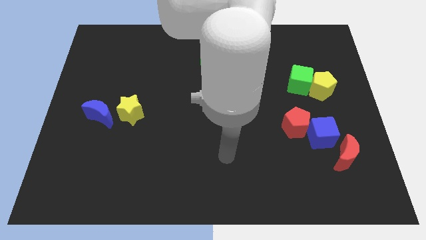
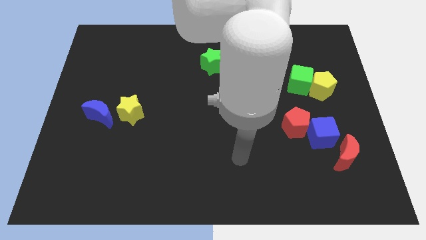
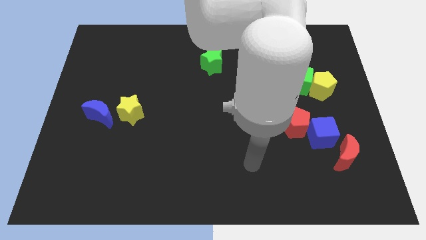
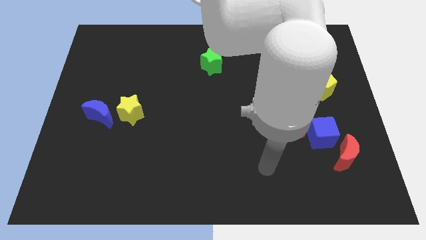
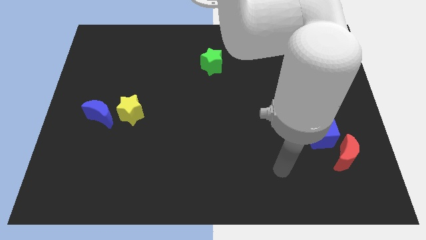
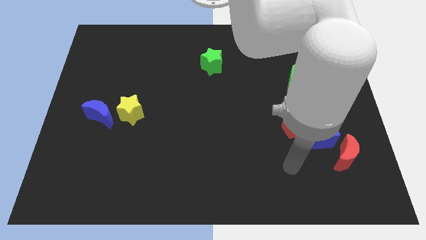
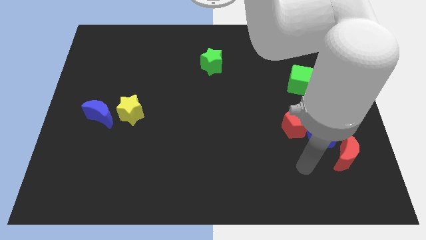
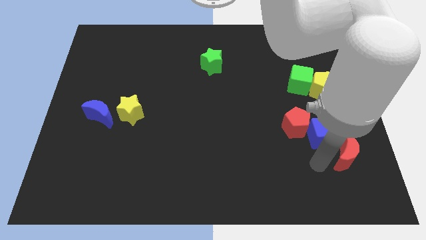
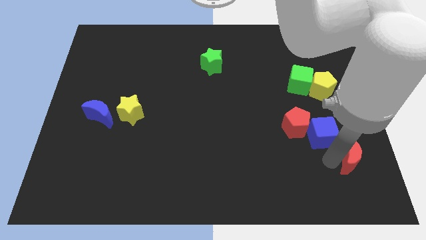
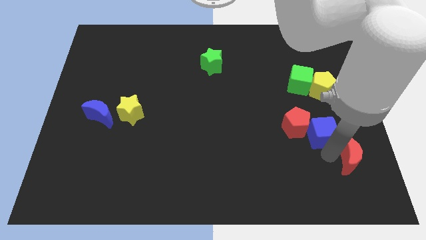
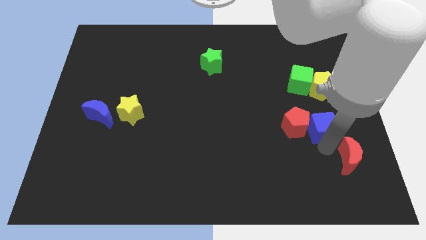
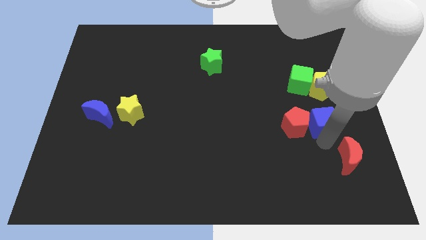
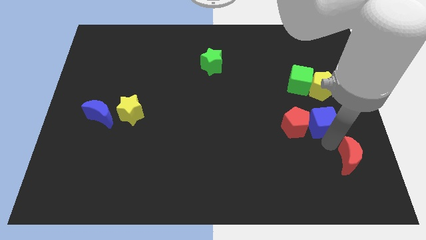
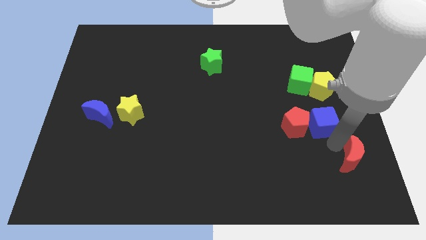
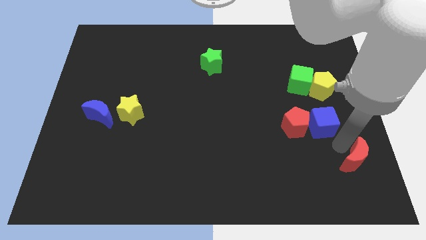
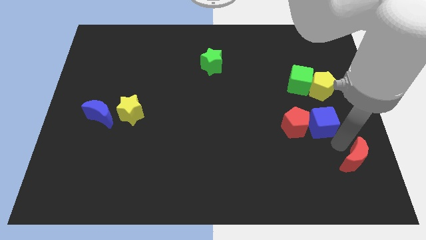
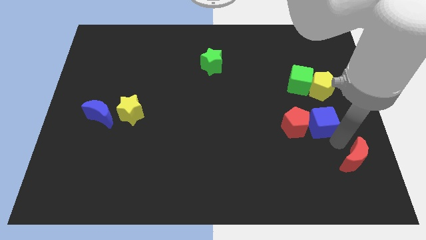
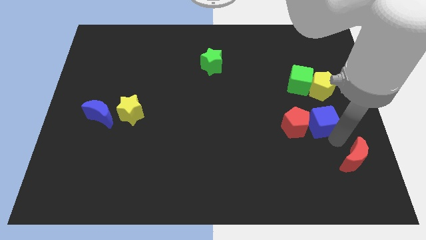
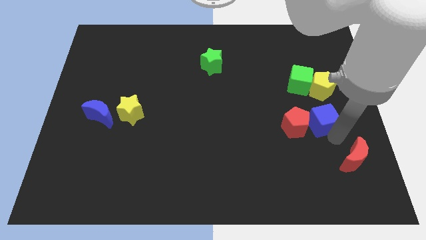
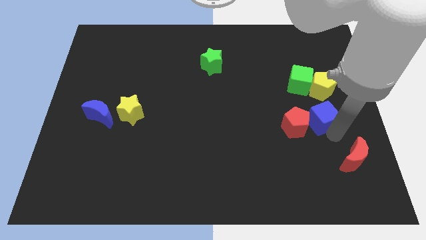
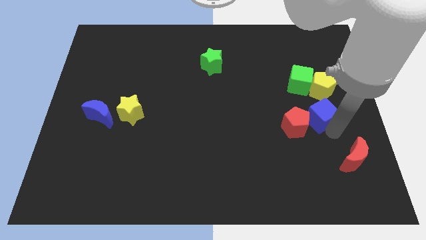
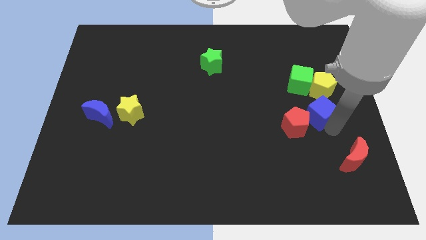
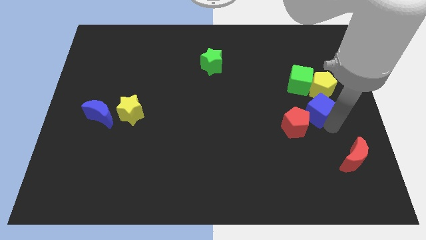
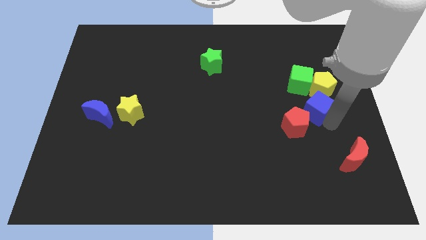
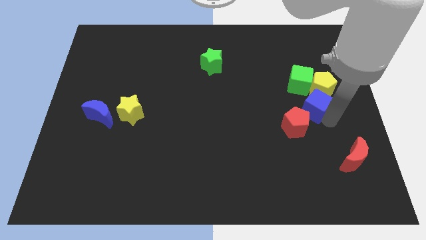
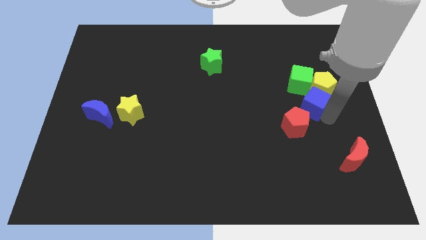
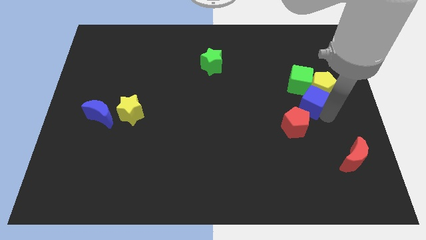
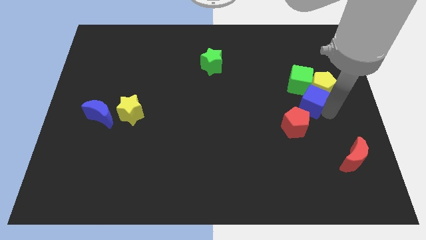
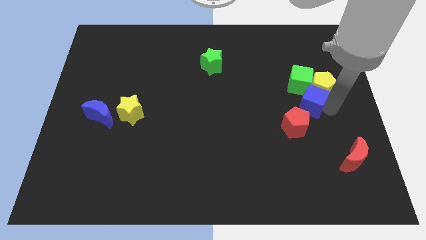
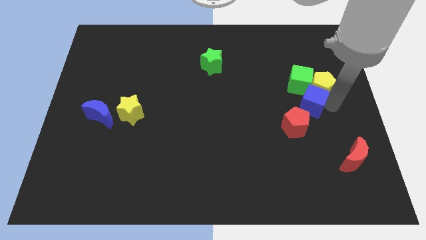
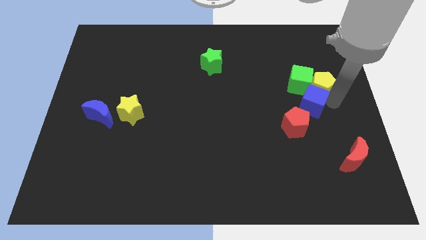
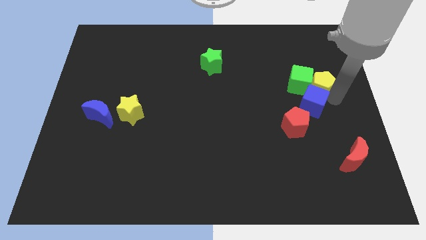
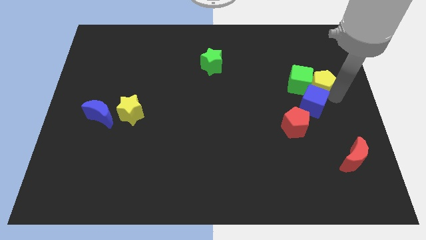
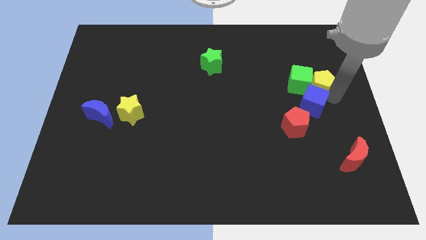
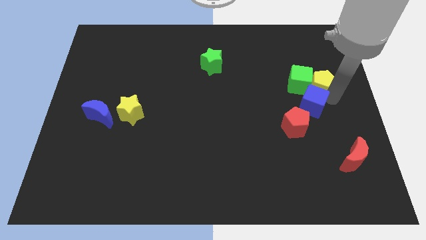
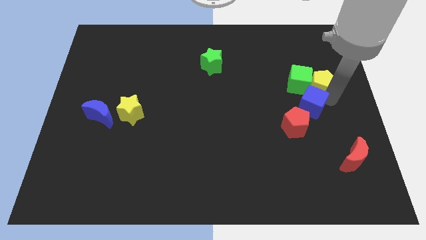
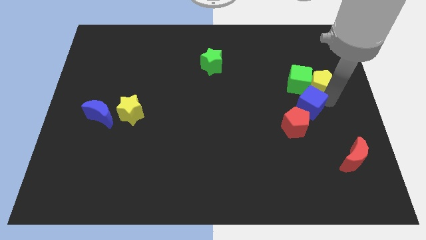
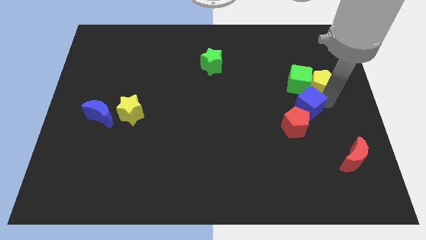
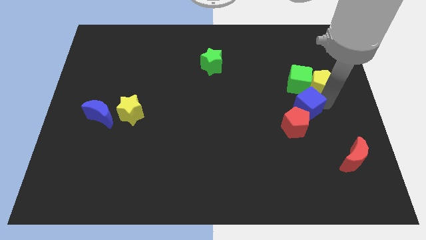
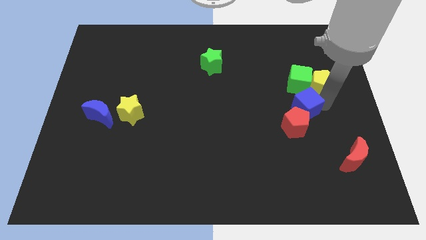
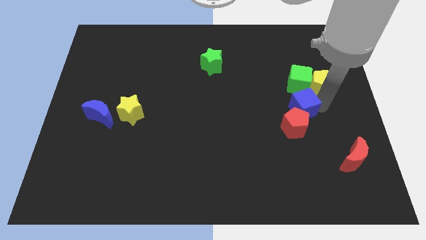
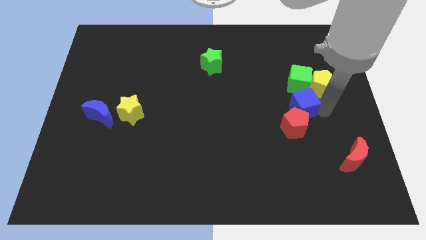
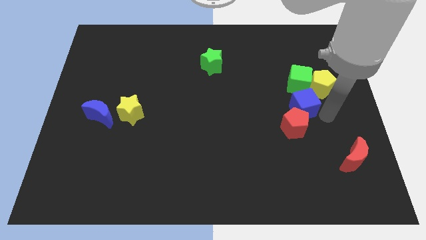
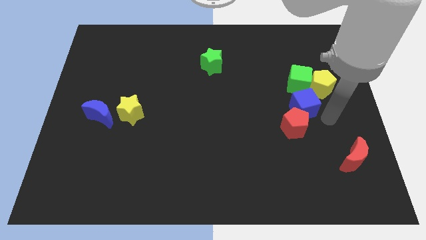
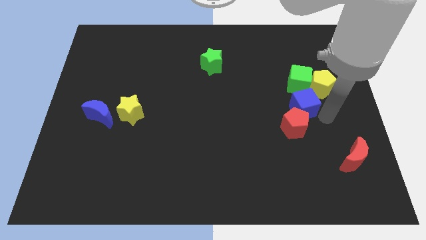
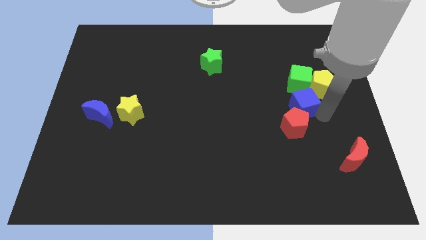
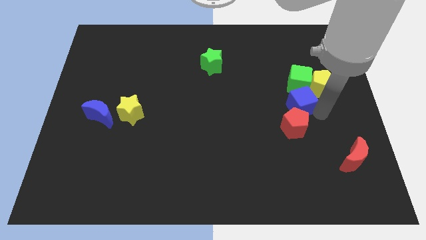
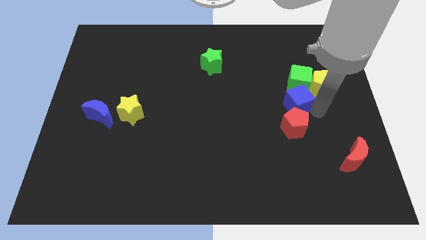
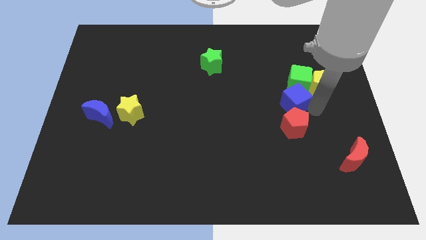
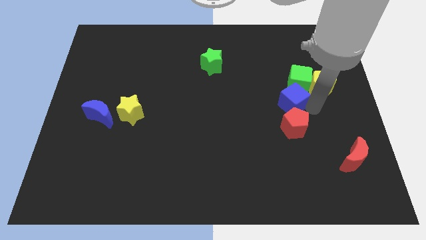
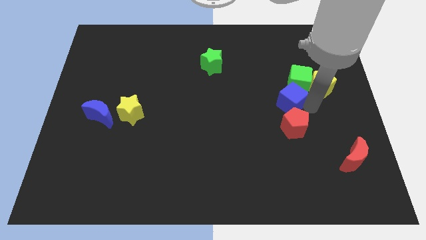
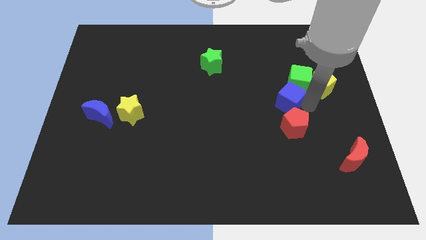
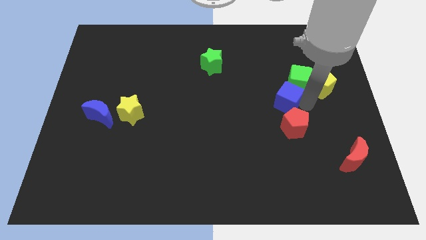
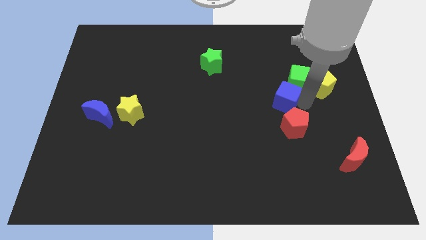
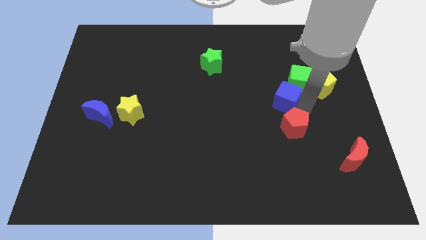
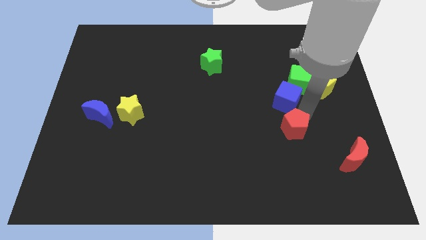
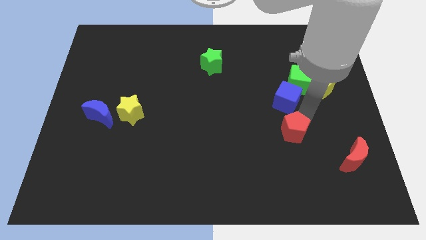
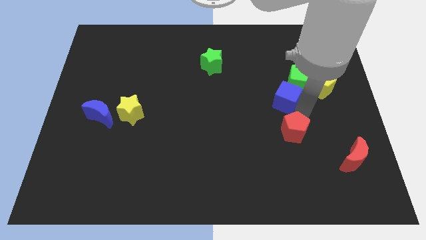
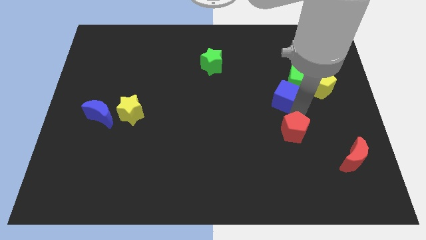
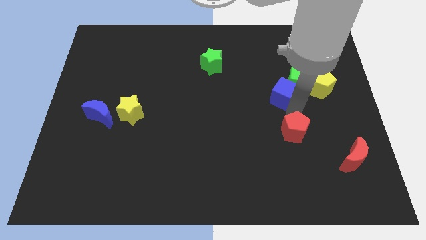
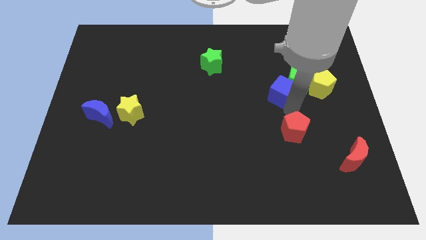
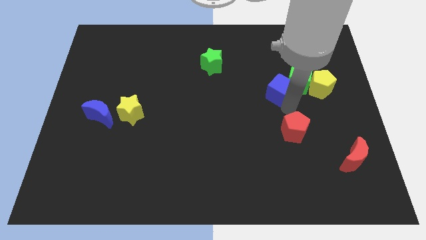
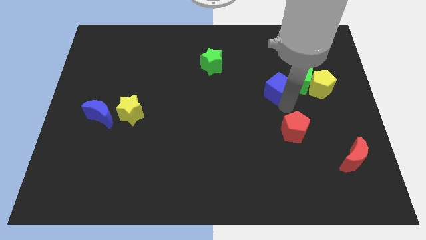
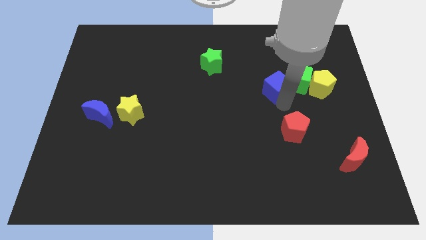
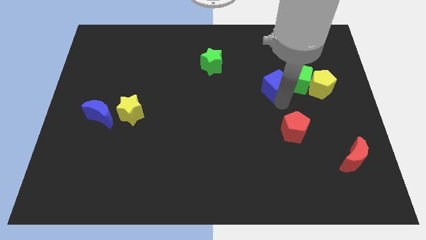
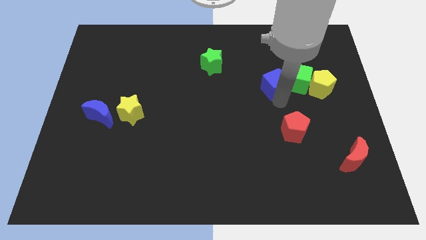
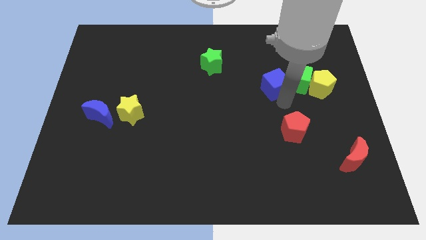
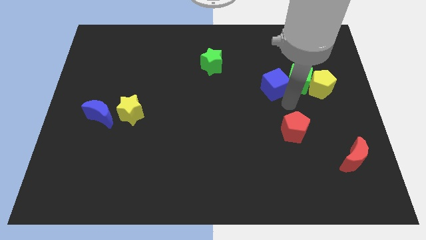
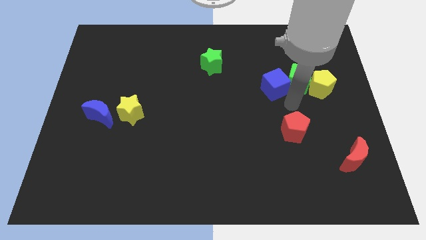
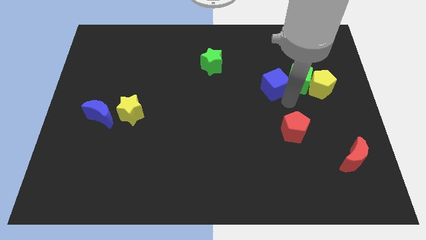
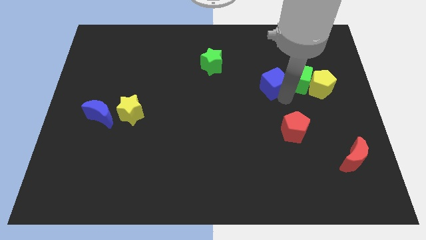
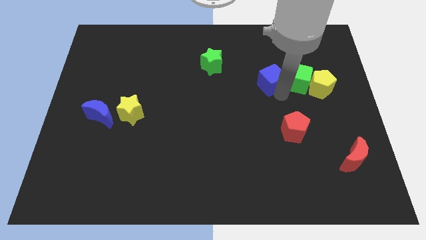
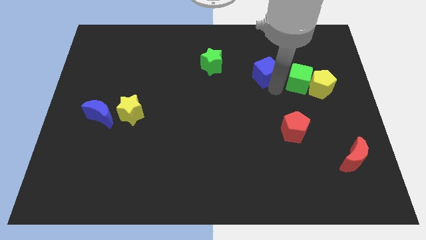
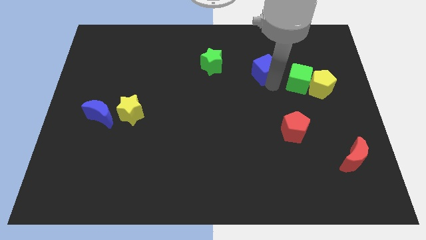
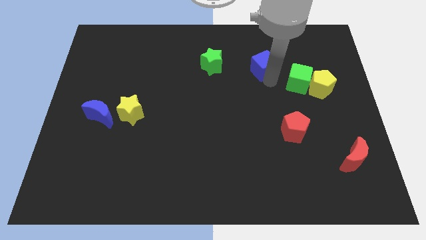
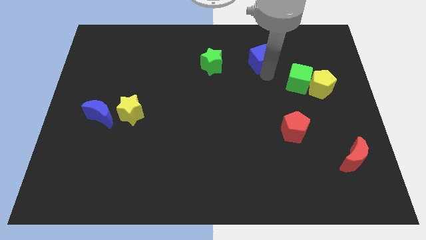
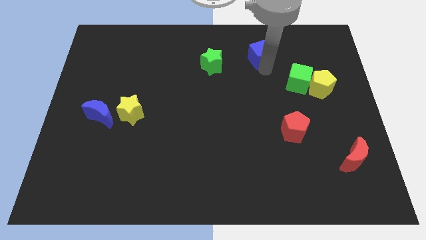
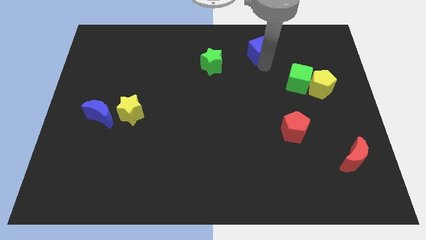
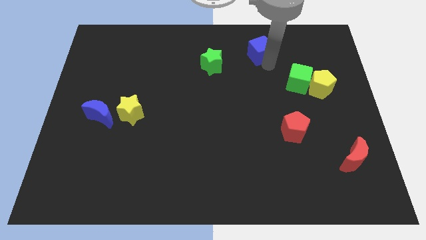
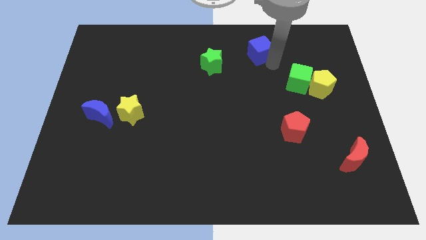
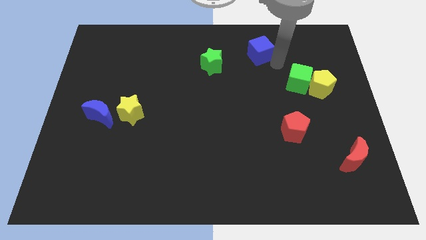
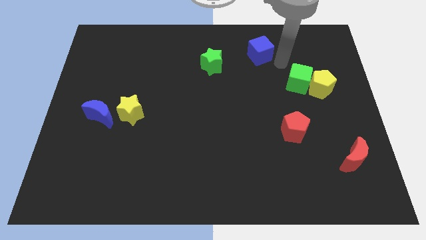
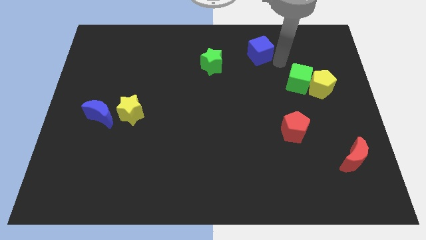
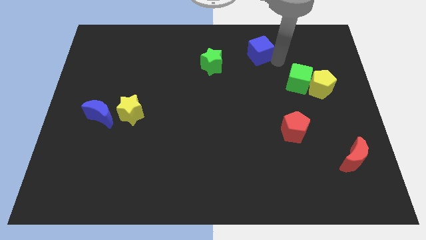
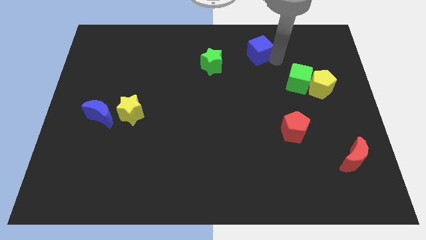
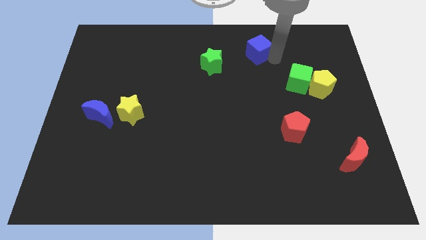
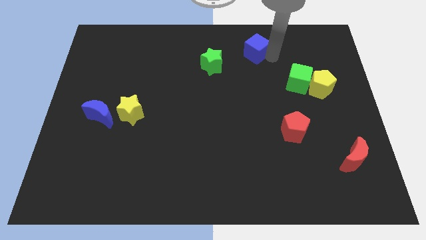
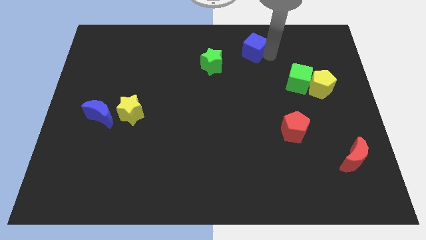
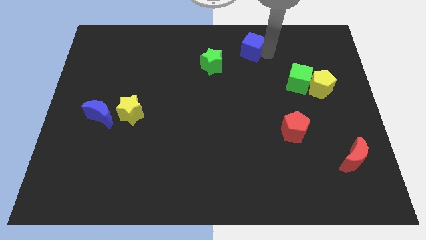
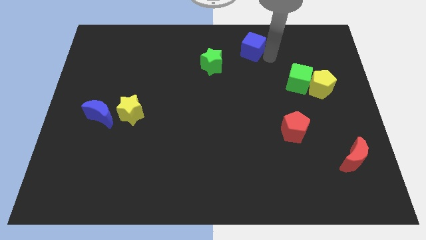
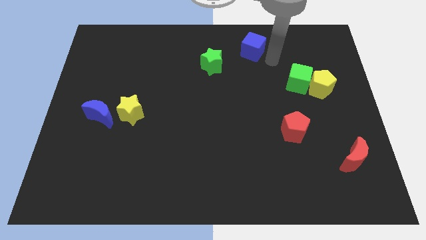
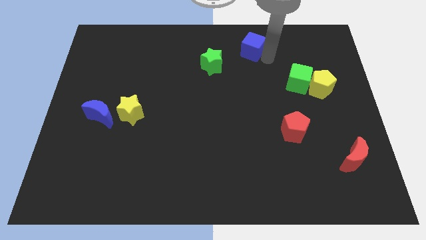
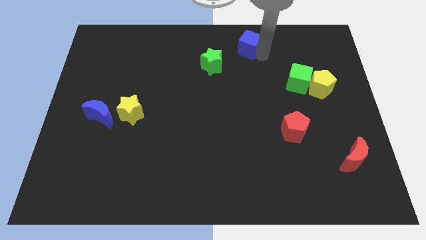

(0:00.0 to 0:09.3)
slide the blue cube to the towards your base
